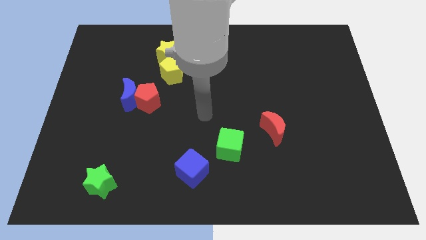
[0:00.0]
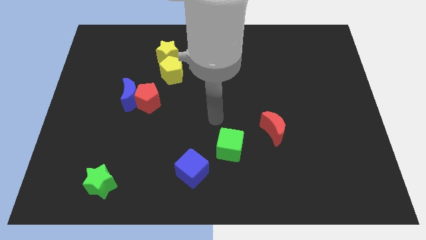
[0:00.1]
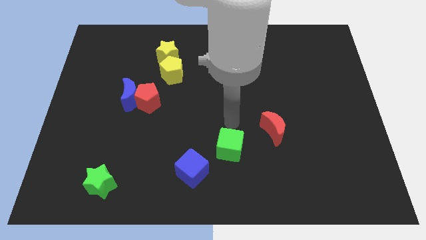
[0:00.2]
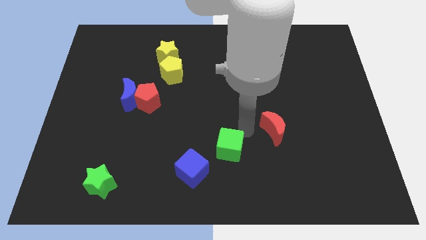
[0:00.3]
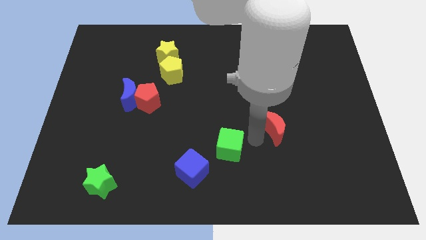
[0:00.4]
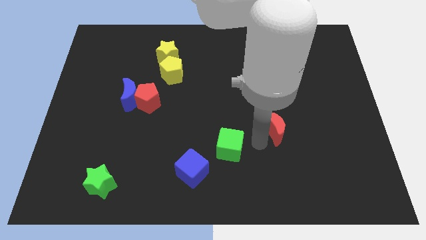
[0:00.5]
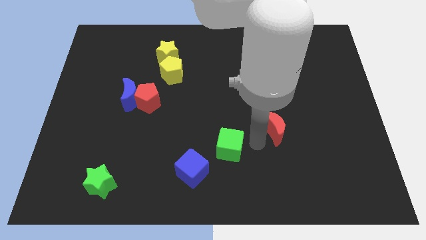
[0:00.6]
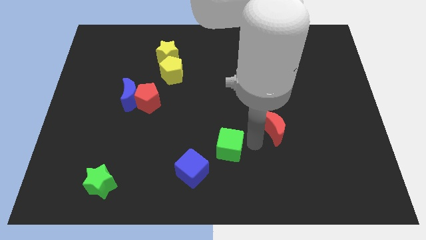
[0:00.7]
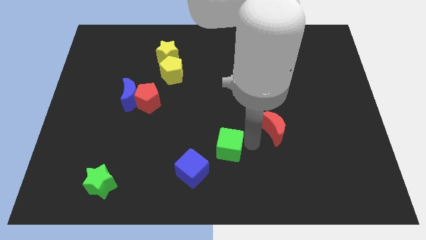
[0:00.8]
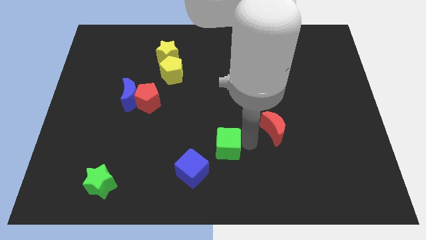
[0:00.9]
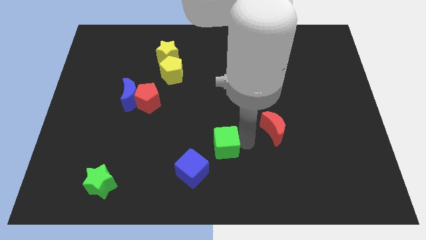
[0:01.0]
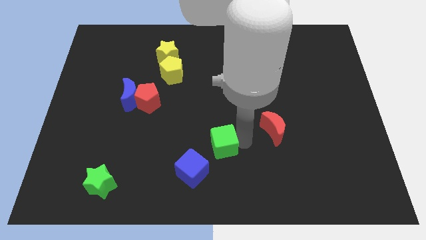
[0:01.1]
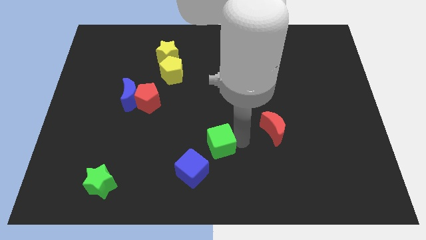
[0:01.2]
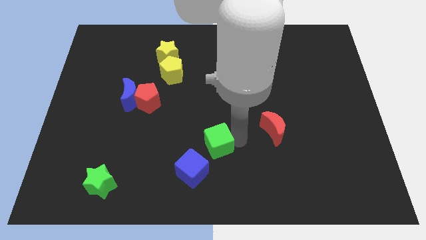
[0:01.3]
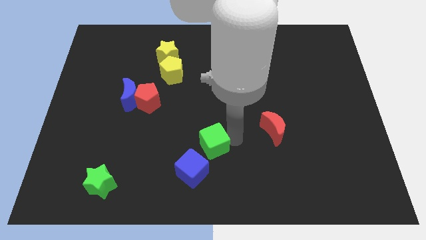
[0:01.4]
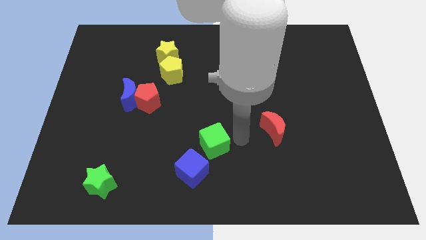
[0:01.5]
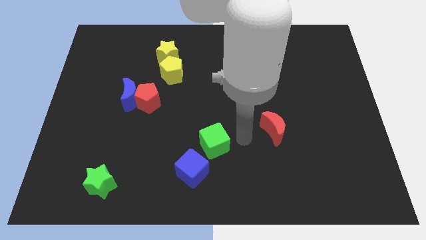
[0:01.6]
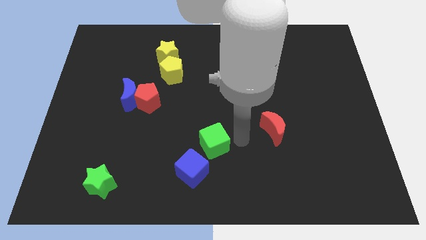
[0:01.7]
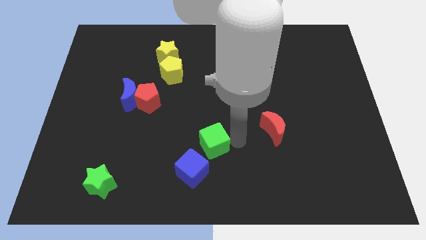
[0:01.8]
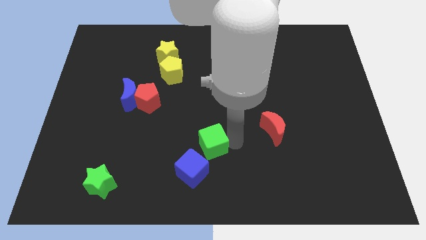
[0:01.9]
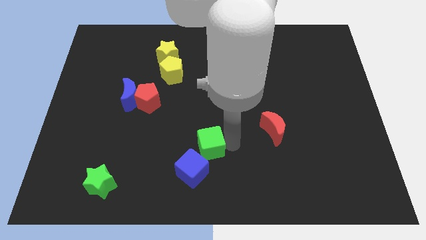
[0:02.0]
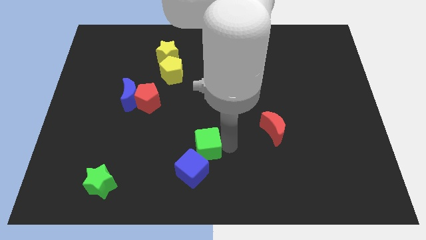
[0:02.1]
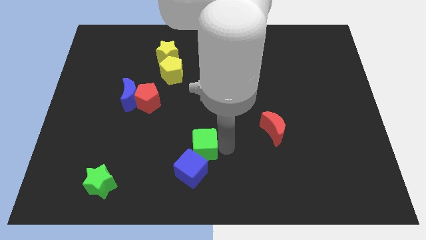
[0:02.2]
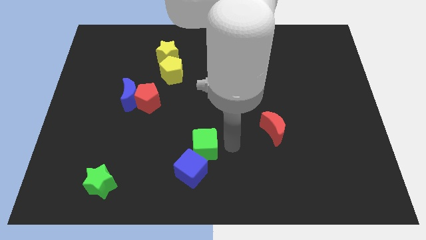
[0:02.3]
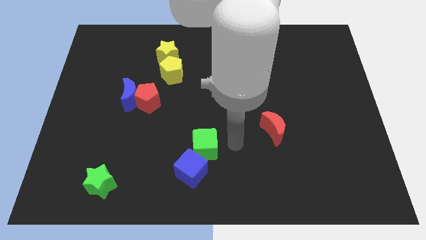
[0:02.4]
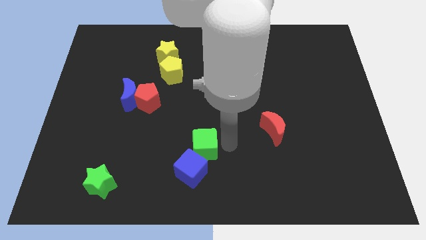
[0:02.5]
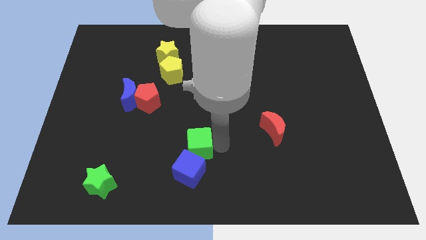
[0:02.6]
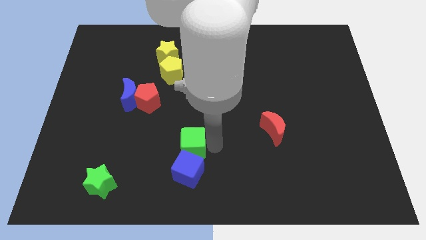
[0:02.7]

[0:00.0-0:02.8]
push the green cube to the left a little

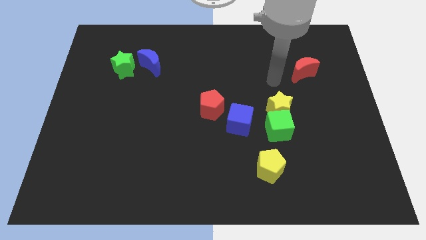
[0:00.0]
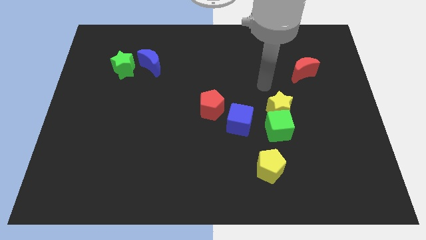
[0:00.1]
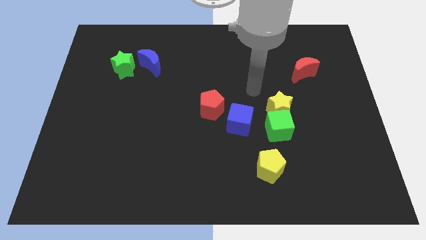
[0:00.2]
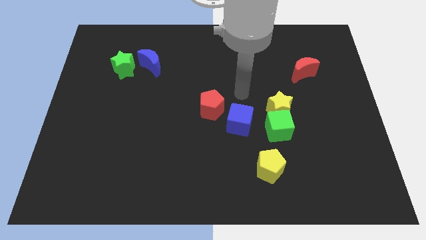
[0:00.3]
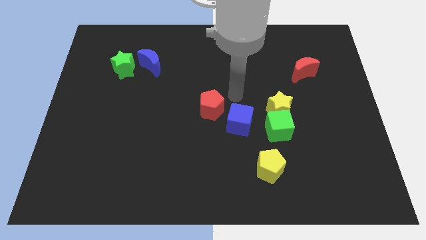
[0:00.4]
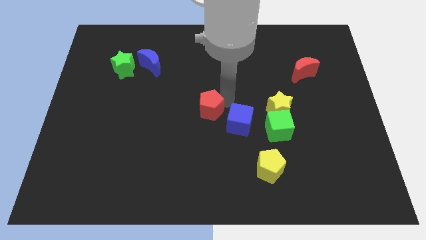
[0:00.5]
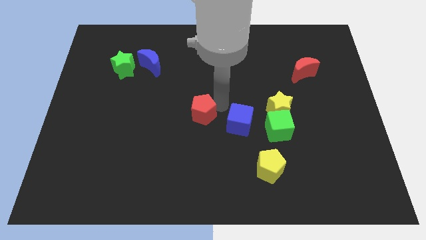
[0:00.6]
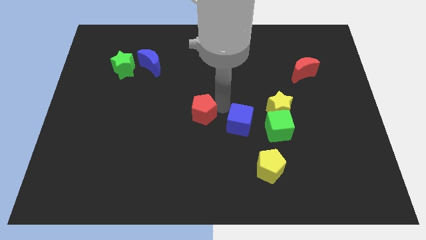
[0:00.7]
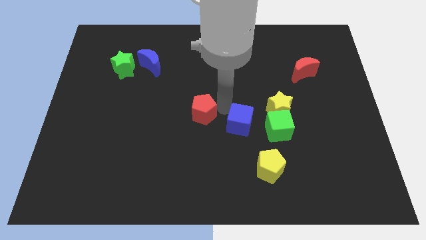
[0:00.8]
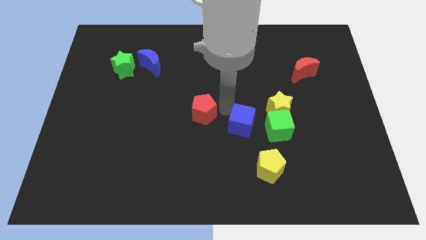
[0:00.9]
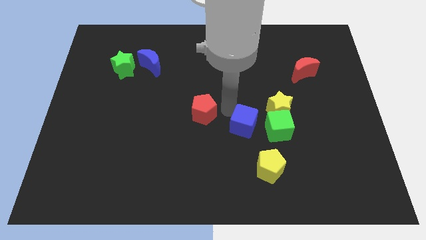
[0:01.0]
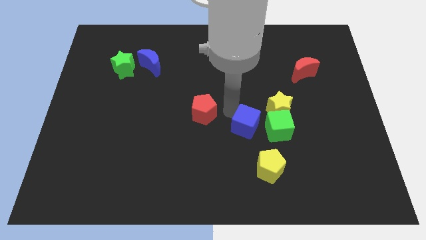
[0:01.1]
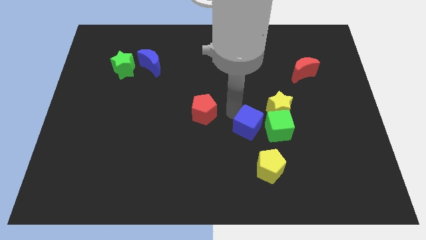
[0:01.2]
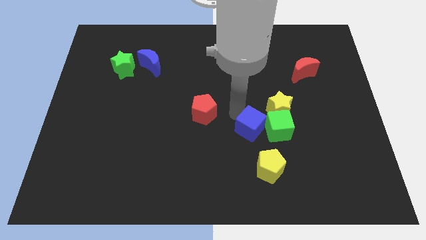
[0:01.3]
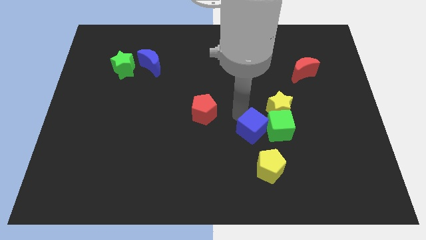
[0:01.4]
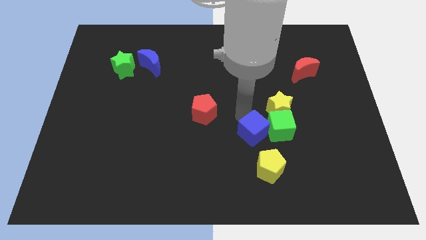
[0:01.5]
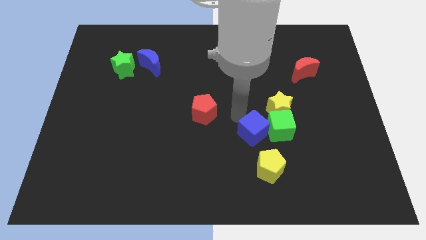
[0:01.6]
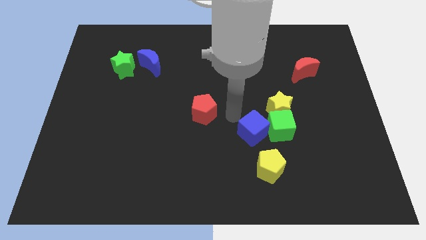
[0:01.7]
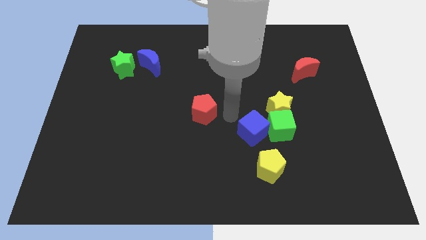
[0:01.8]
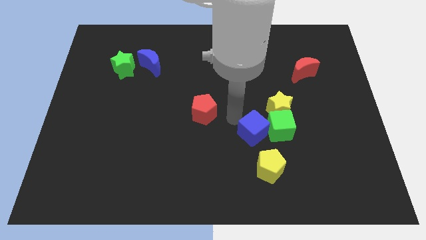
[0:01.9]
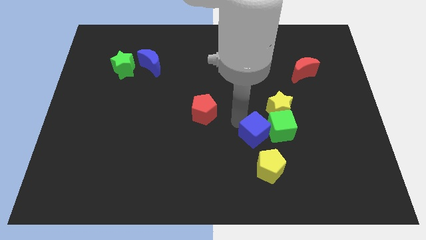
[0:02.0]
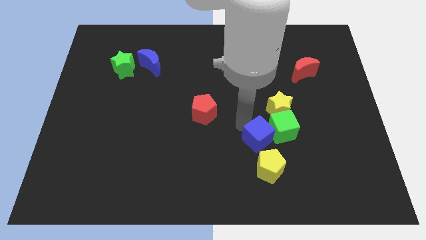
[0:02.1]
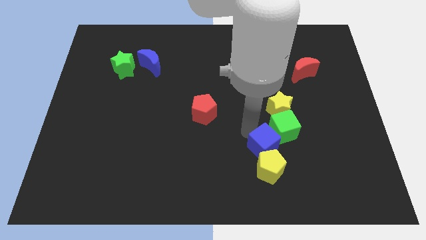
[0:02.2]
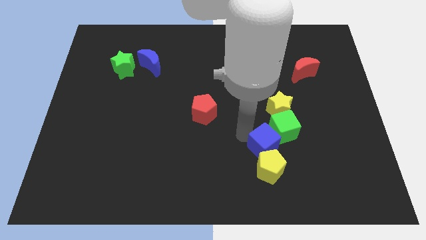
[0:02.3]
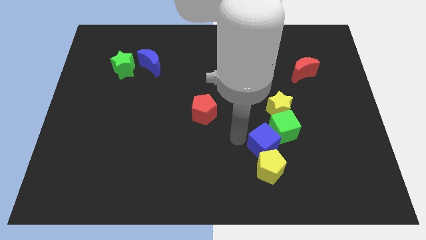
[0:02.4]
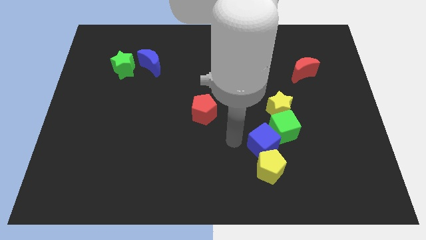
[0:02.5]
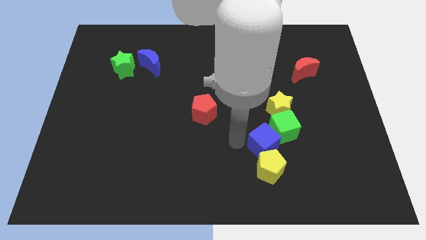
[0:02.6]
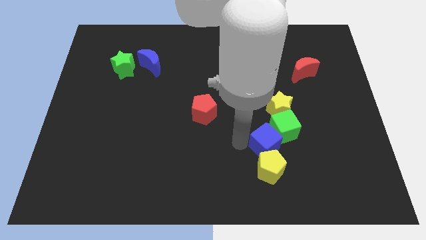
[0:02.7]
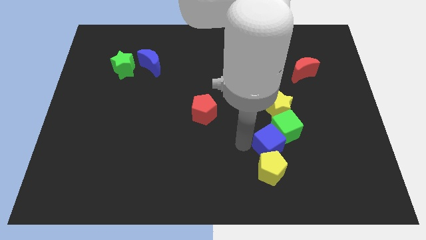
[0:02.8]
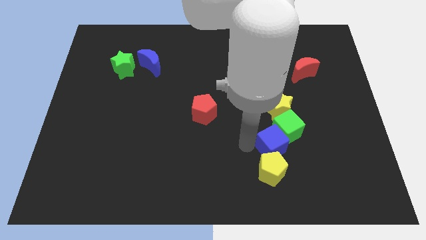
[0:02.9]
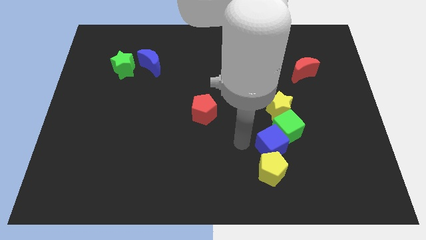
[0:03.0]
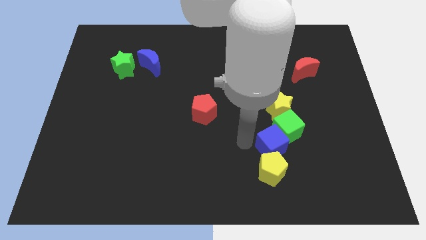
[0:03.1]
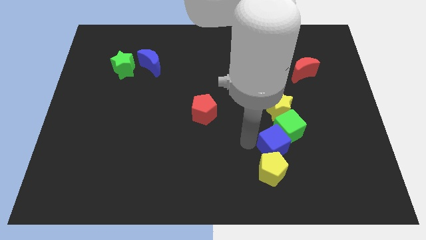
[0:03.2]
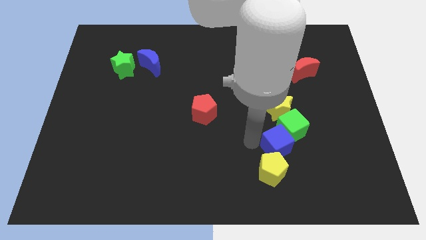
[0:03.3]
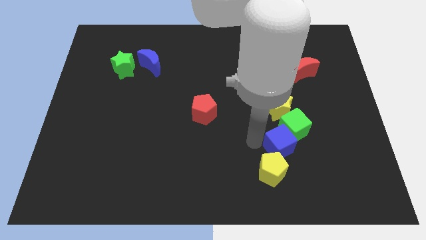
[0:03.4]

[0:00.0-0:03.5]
move the blue cube a bit right

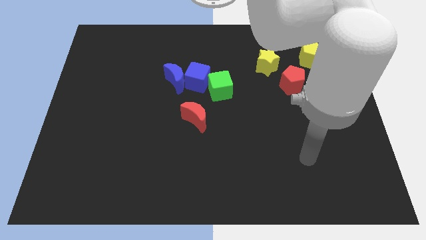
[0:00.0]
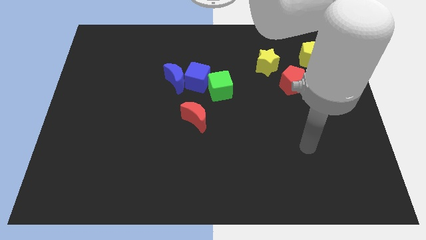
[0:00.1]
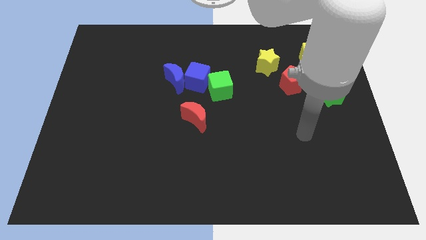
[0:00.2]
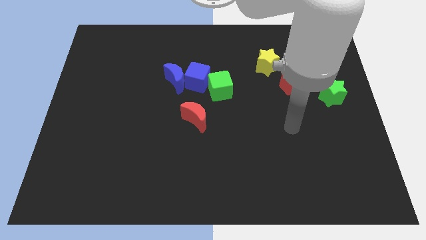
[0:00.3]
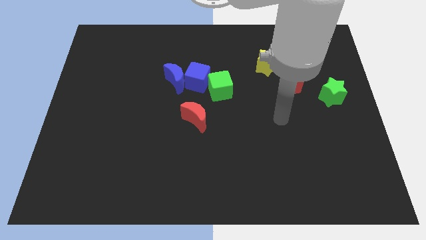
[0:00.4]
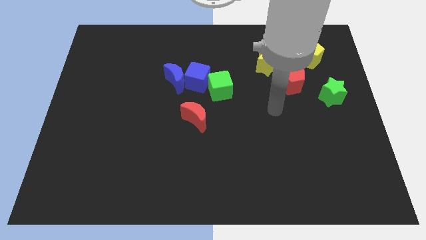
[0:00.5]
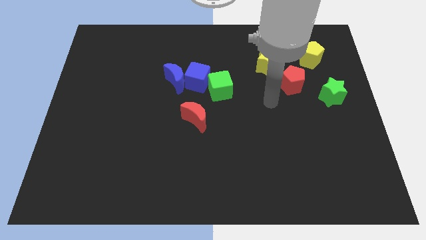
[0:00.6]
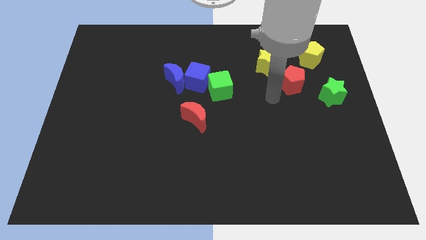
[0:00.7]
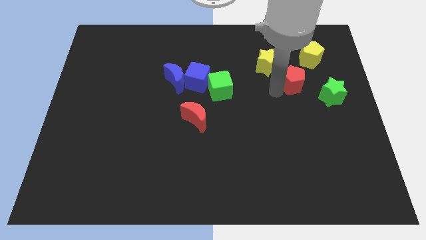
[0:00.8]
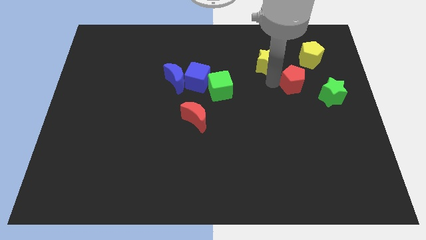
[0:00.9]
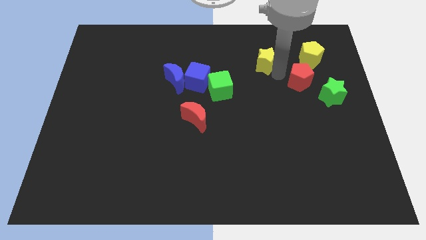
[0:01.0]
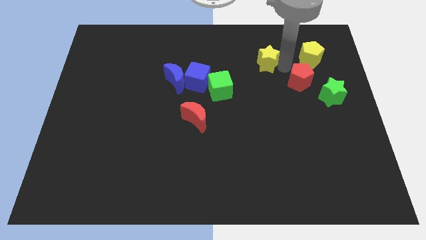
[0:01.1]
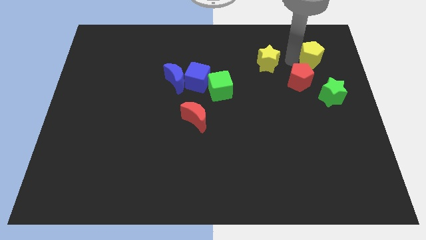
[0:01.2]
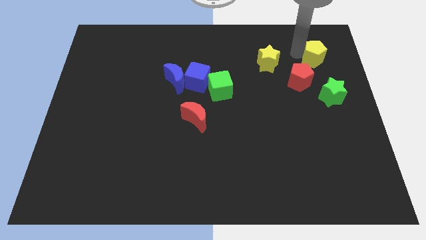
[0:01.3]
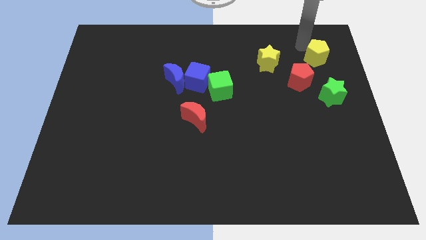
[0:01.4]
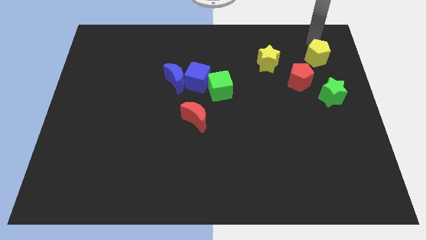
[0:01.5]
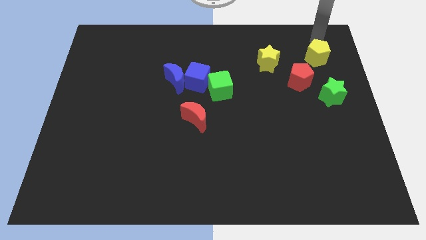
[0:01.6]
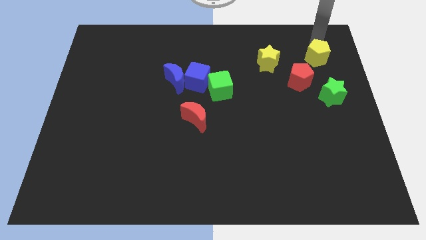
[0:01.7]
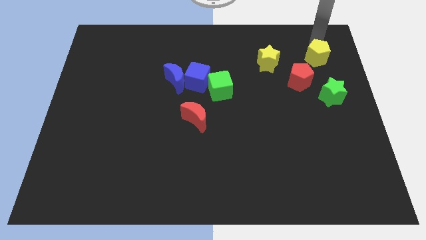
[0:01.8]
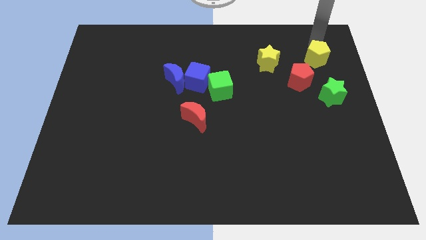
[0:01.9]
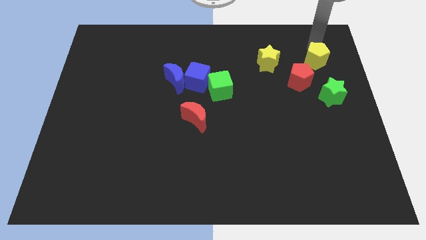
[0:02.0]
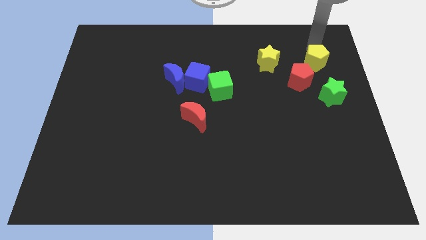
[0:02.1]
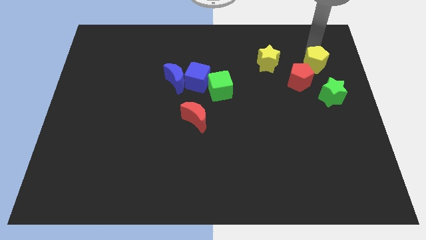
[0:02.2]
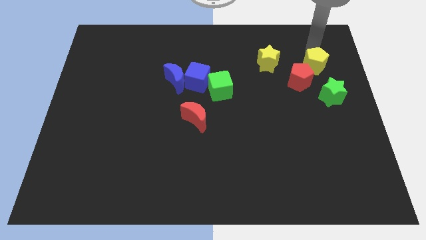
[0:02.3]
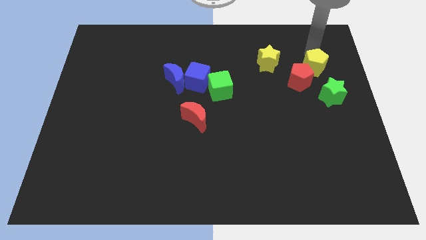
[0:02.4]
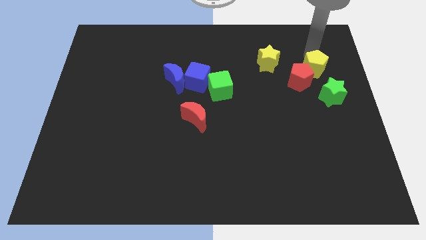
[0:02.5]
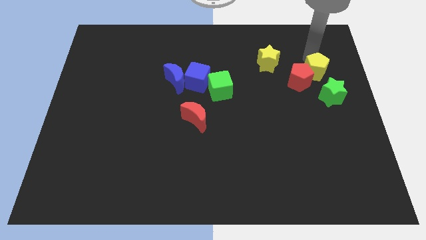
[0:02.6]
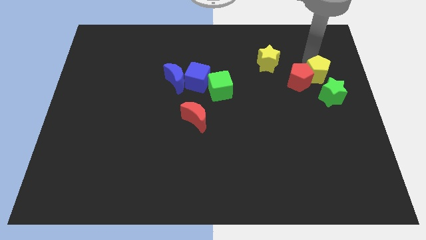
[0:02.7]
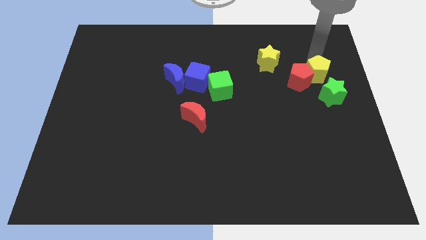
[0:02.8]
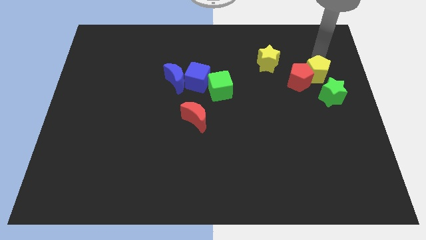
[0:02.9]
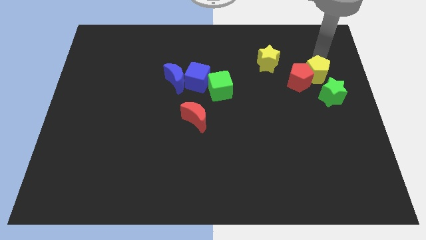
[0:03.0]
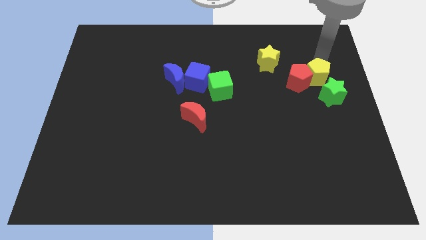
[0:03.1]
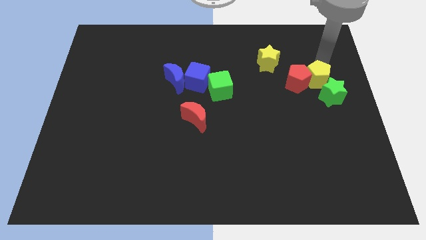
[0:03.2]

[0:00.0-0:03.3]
push the yellow pentagon a bit downwards
